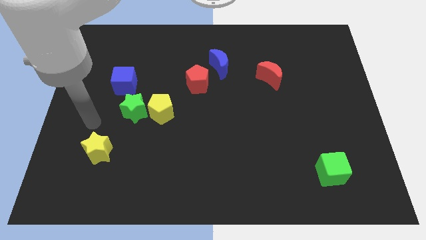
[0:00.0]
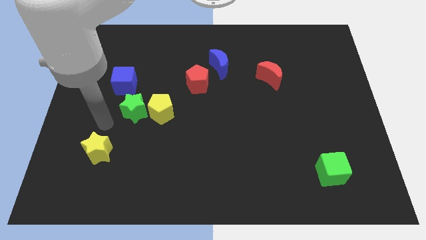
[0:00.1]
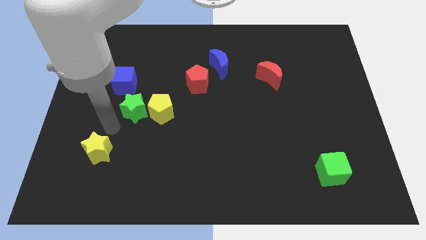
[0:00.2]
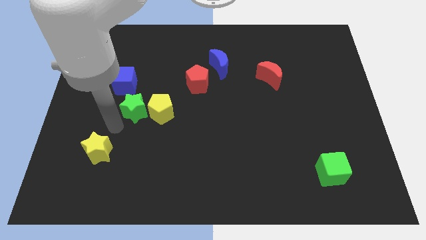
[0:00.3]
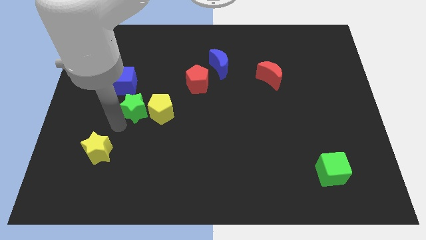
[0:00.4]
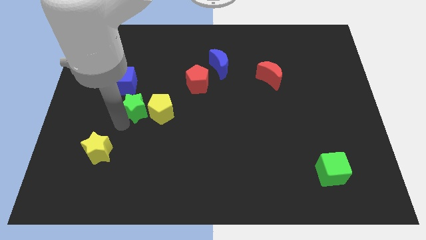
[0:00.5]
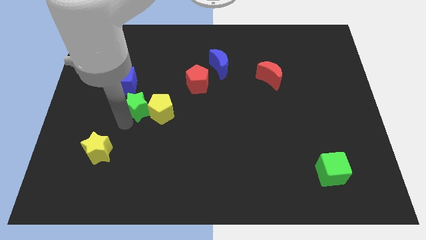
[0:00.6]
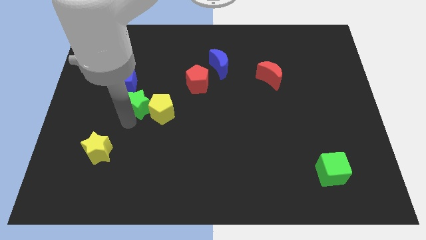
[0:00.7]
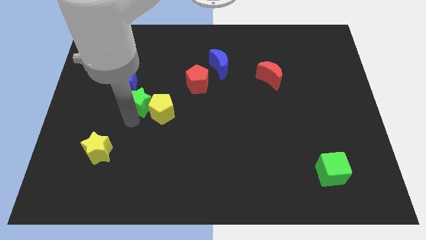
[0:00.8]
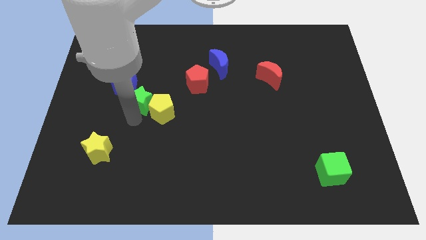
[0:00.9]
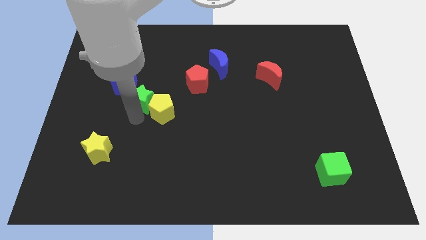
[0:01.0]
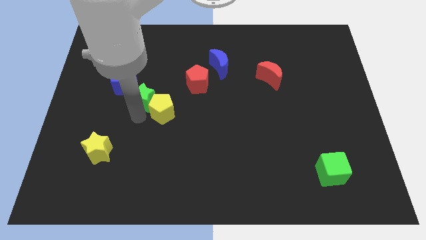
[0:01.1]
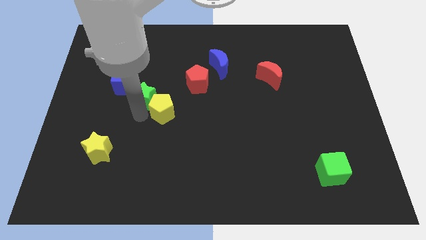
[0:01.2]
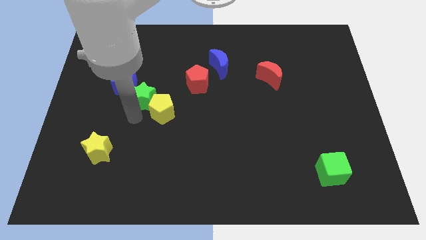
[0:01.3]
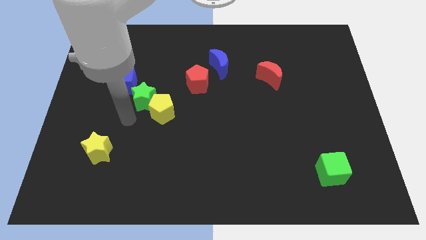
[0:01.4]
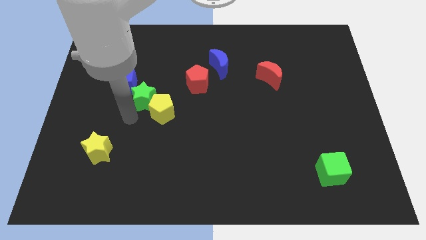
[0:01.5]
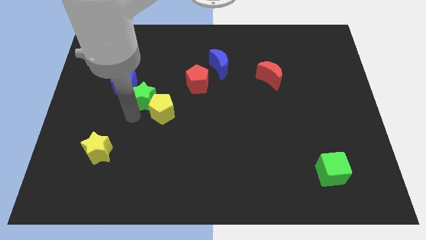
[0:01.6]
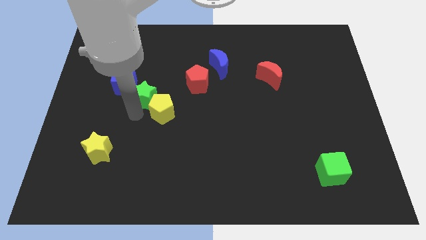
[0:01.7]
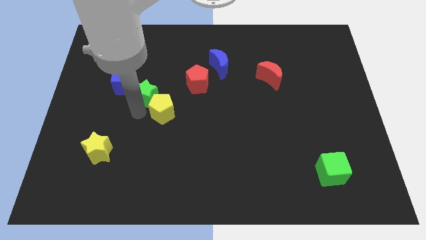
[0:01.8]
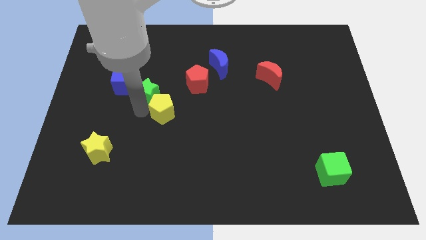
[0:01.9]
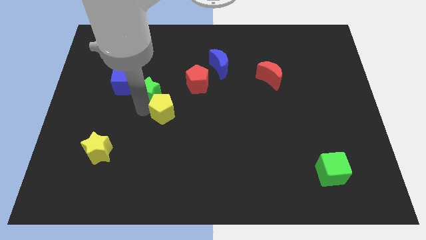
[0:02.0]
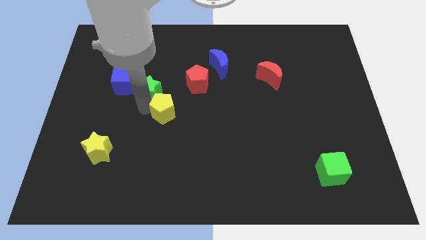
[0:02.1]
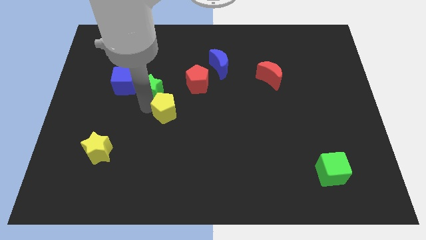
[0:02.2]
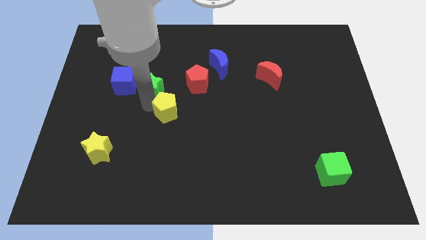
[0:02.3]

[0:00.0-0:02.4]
move the green star upwards and right a little

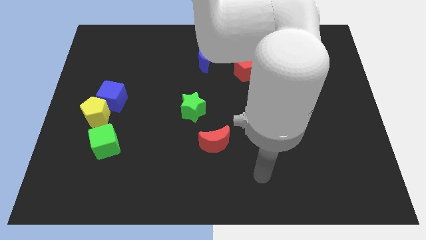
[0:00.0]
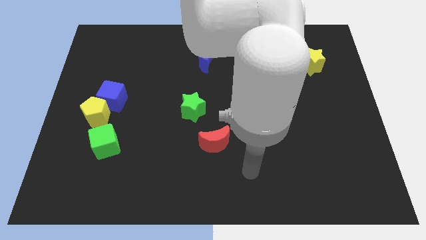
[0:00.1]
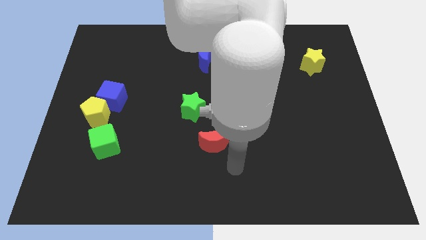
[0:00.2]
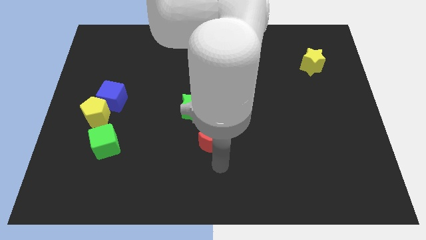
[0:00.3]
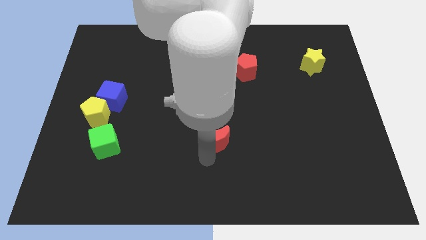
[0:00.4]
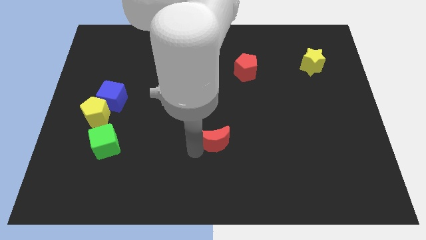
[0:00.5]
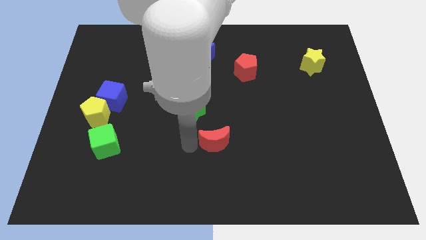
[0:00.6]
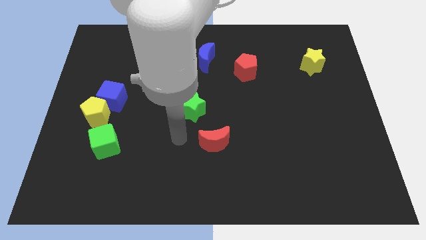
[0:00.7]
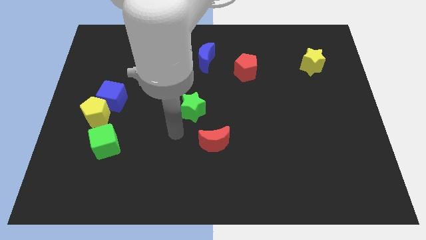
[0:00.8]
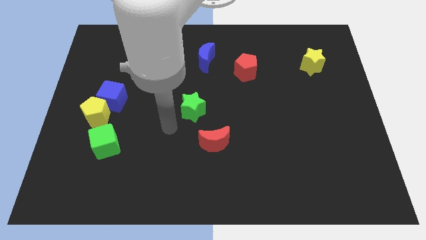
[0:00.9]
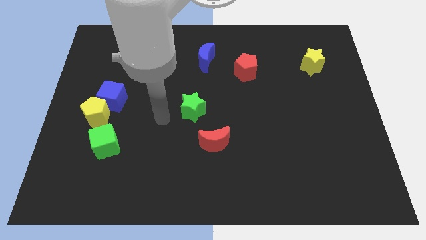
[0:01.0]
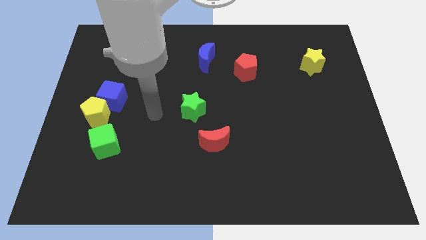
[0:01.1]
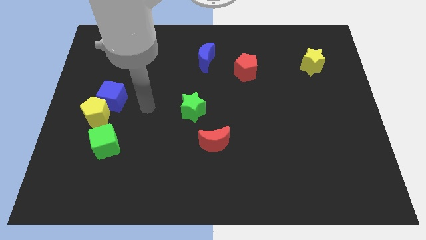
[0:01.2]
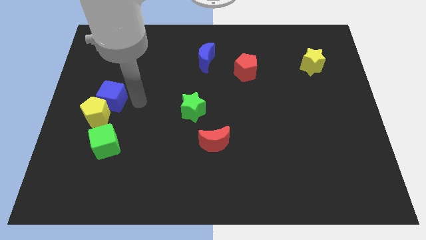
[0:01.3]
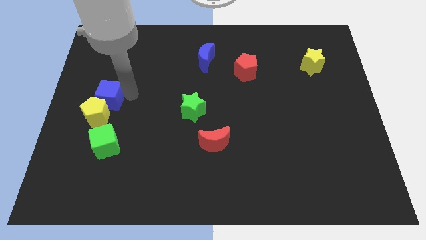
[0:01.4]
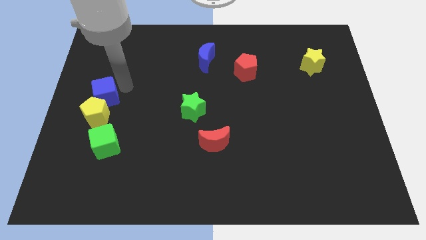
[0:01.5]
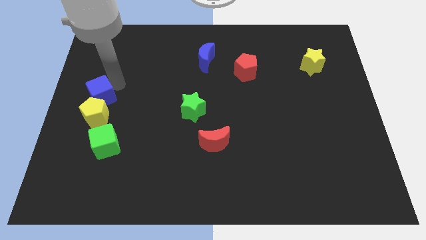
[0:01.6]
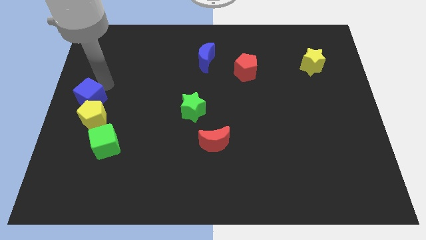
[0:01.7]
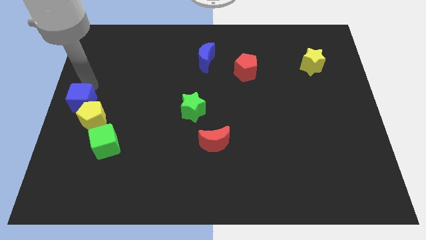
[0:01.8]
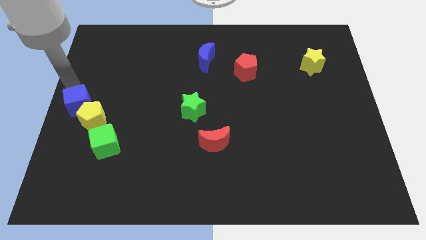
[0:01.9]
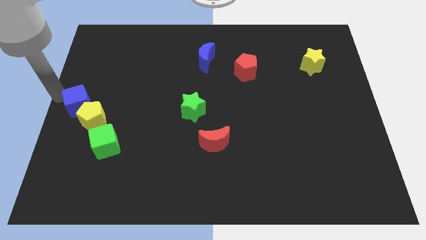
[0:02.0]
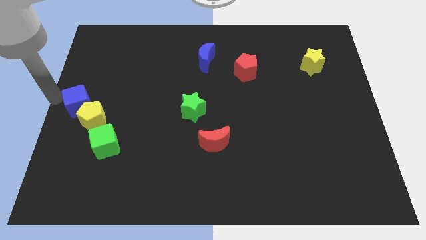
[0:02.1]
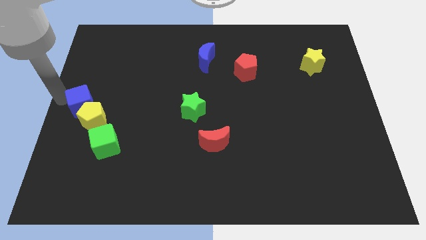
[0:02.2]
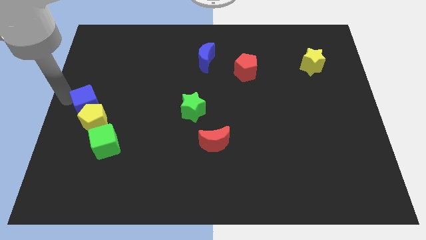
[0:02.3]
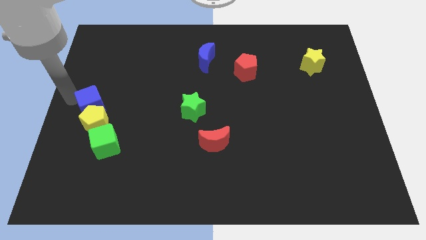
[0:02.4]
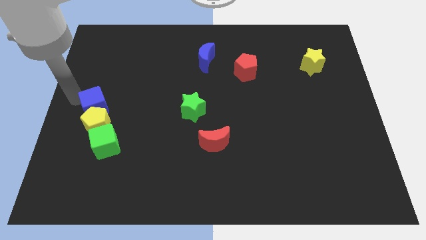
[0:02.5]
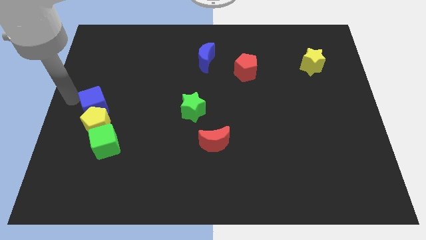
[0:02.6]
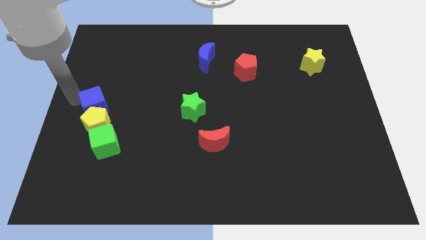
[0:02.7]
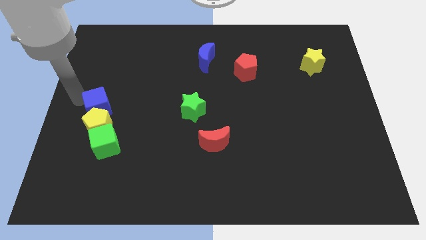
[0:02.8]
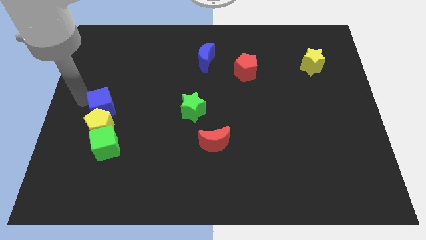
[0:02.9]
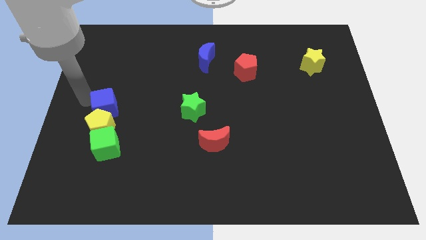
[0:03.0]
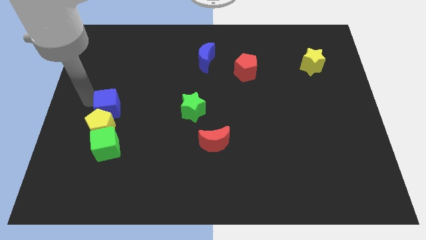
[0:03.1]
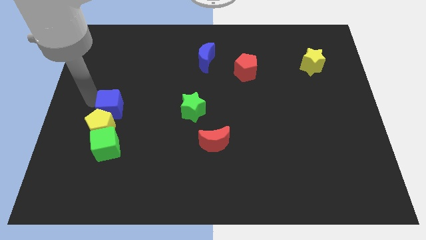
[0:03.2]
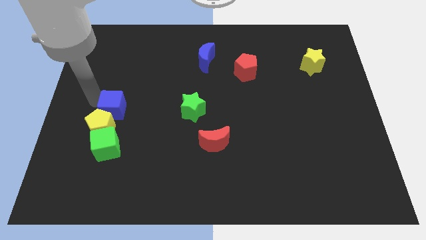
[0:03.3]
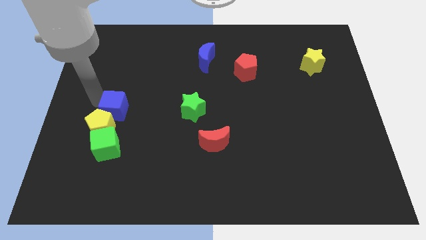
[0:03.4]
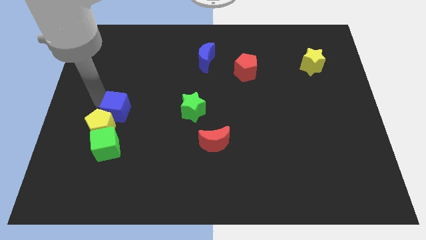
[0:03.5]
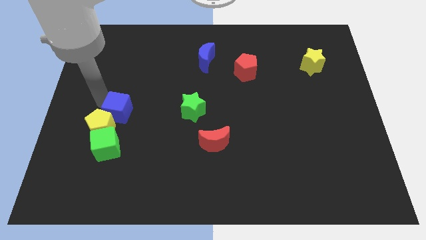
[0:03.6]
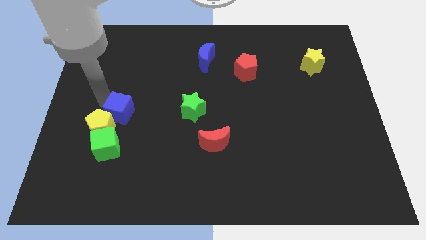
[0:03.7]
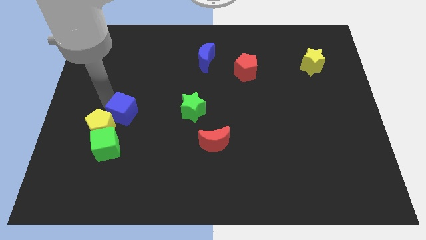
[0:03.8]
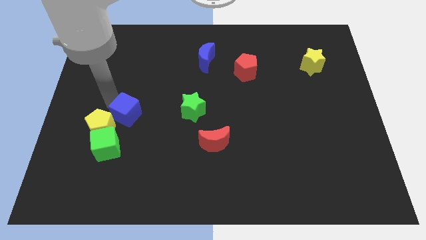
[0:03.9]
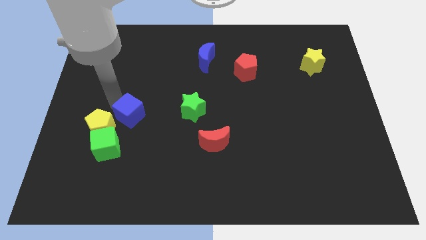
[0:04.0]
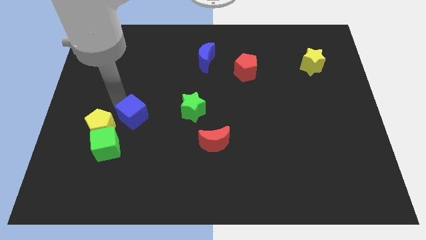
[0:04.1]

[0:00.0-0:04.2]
slightly move the blue cube downwards and right diagonally

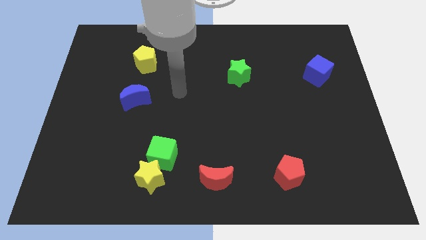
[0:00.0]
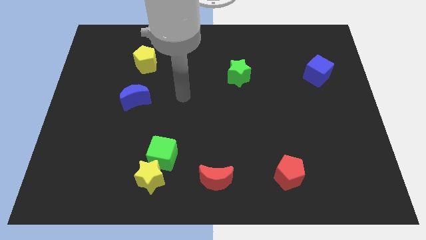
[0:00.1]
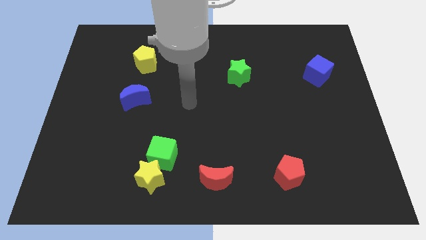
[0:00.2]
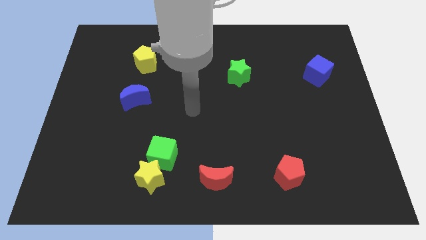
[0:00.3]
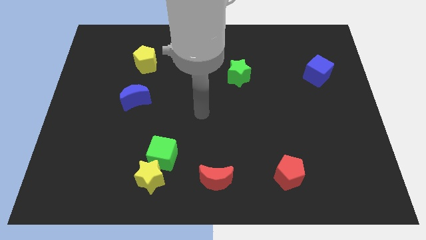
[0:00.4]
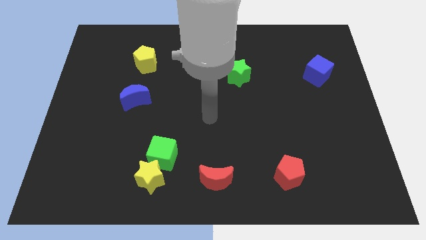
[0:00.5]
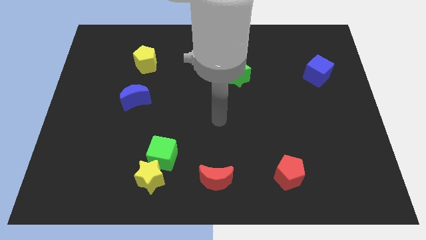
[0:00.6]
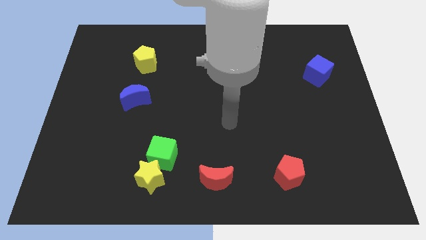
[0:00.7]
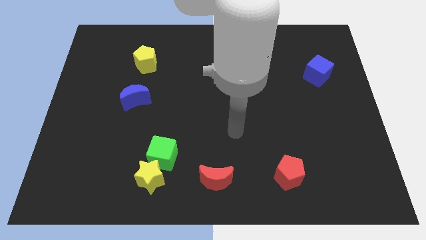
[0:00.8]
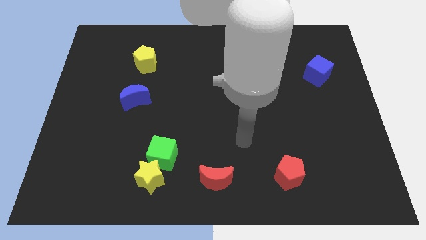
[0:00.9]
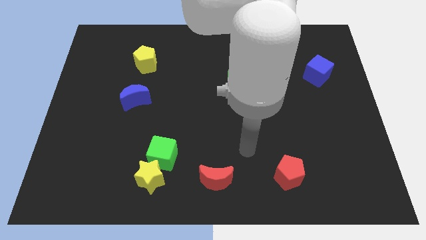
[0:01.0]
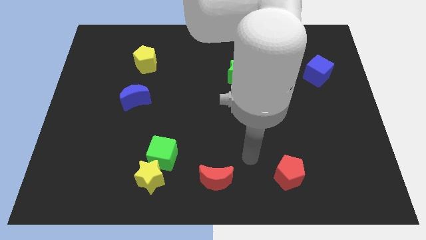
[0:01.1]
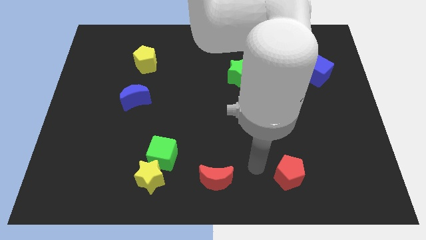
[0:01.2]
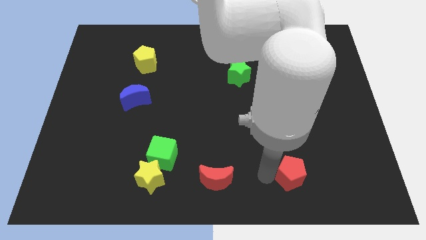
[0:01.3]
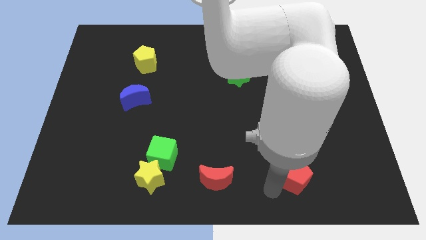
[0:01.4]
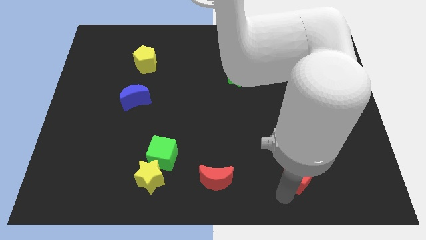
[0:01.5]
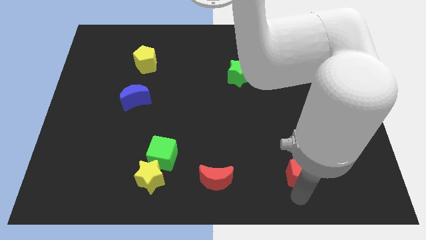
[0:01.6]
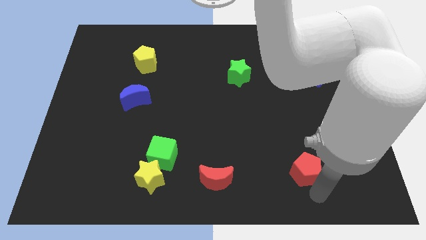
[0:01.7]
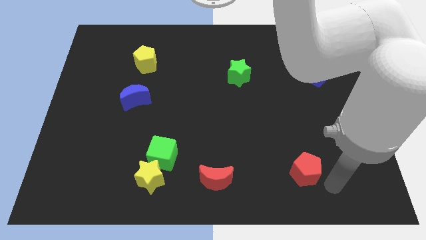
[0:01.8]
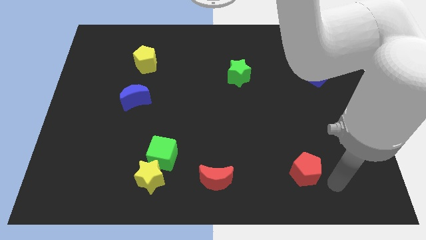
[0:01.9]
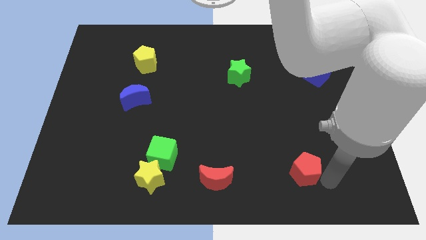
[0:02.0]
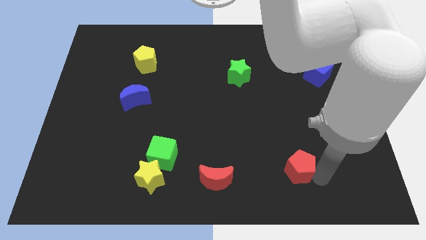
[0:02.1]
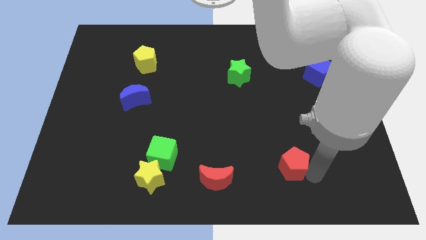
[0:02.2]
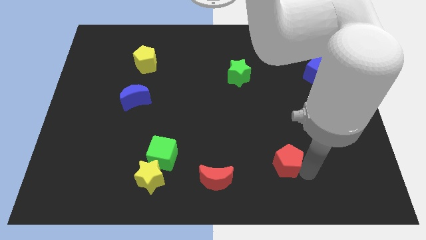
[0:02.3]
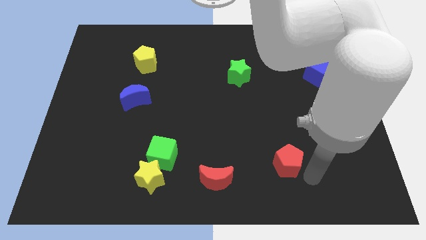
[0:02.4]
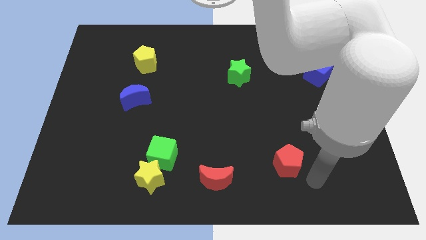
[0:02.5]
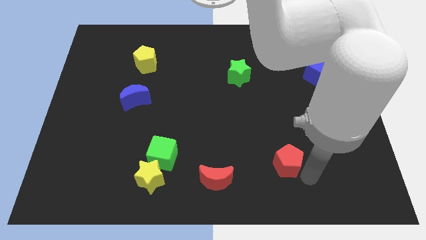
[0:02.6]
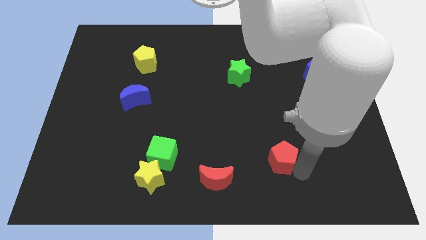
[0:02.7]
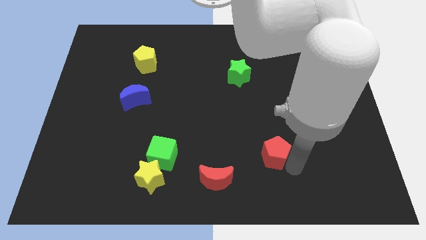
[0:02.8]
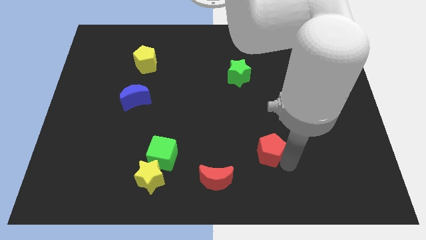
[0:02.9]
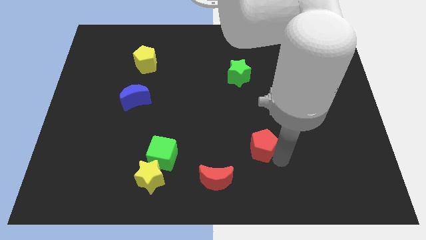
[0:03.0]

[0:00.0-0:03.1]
slide the red pentagon a bit upwards and left
